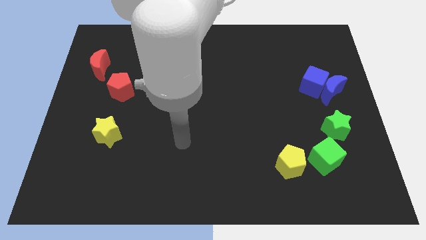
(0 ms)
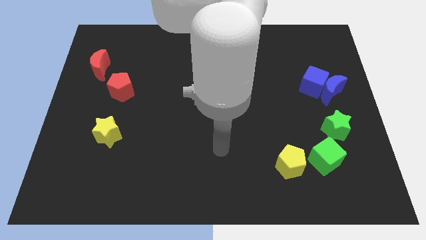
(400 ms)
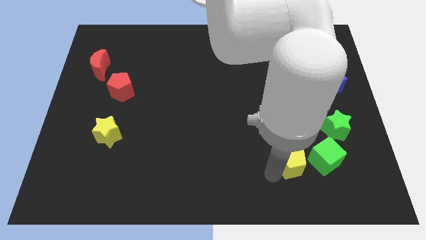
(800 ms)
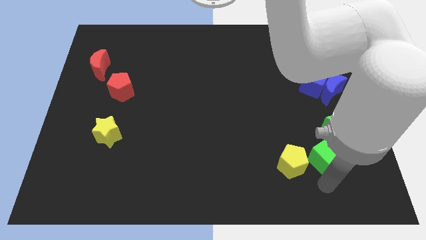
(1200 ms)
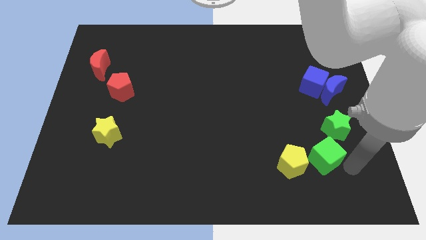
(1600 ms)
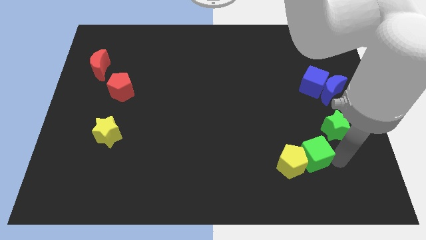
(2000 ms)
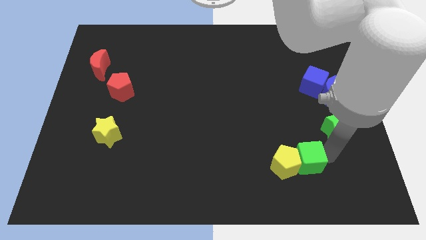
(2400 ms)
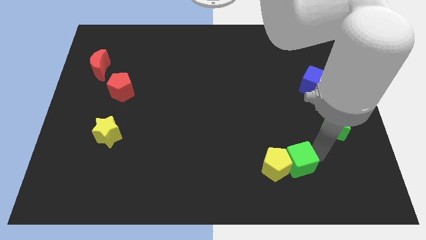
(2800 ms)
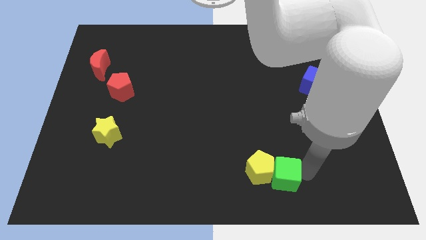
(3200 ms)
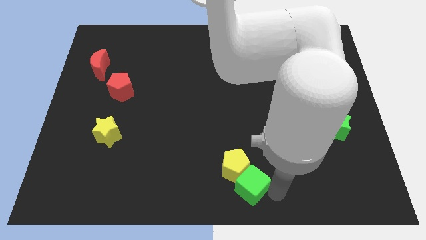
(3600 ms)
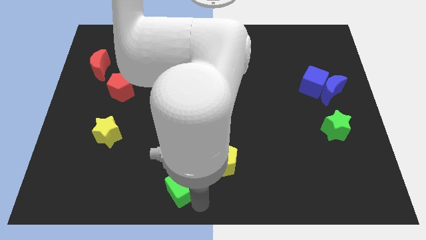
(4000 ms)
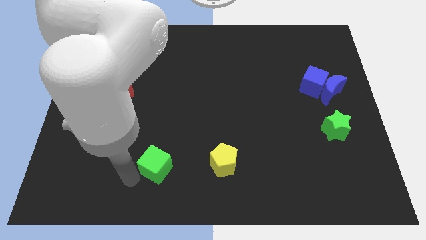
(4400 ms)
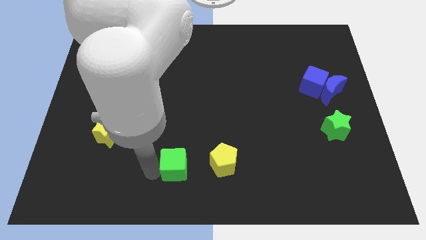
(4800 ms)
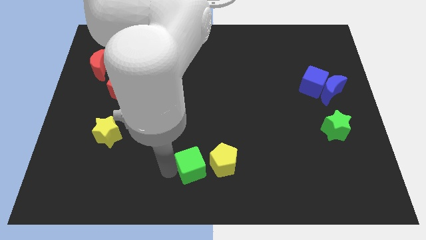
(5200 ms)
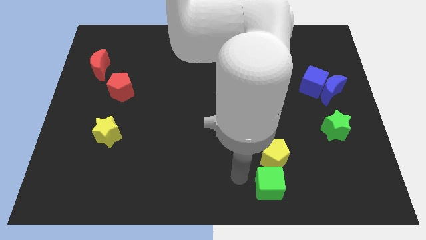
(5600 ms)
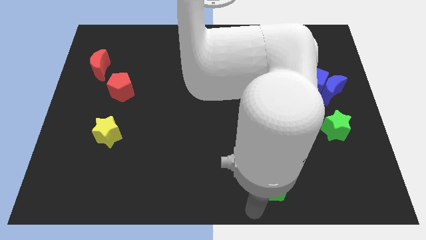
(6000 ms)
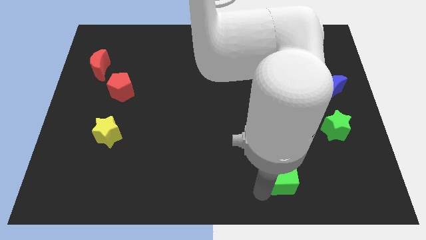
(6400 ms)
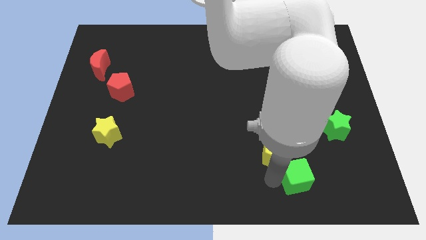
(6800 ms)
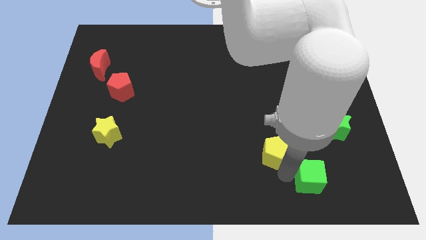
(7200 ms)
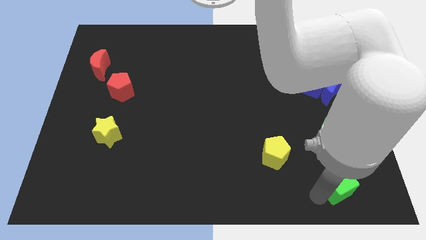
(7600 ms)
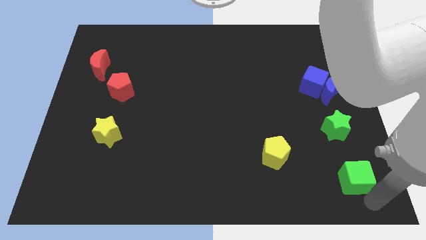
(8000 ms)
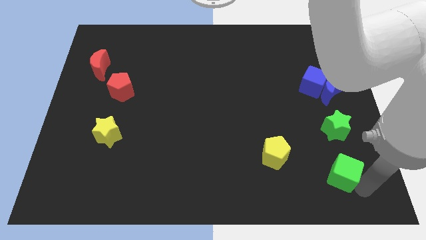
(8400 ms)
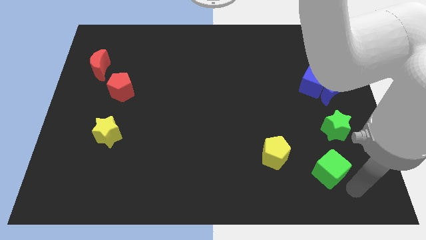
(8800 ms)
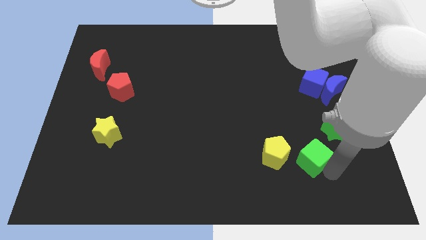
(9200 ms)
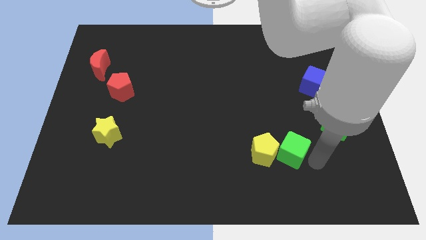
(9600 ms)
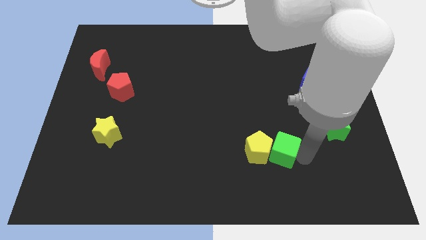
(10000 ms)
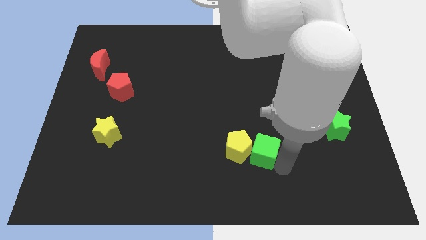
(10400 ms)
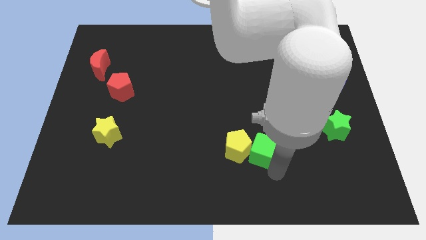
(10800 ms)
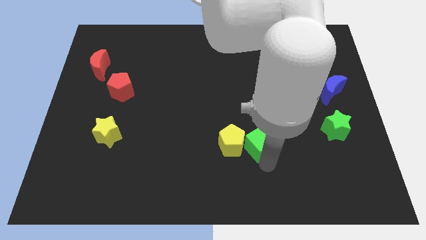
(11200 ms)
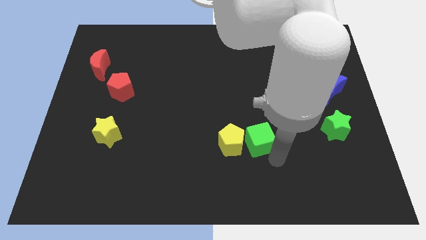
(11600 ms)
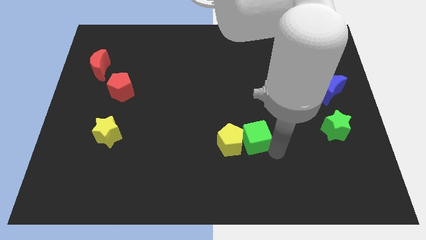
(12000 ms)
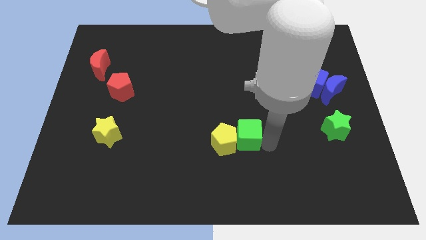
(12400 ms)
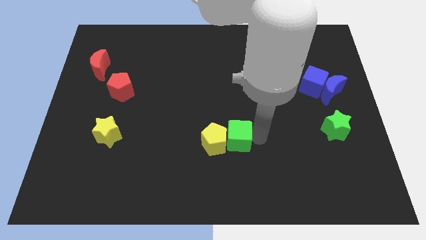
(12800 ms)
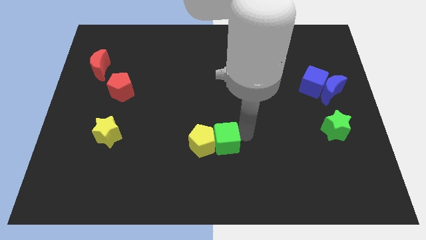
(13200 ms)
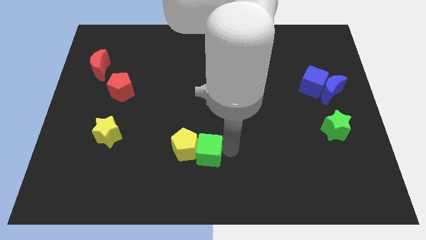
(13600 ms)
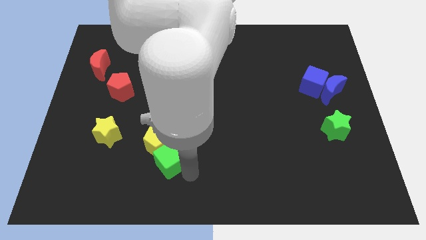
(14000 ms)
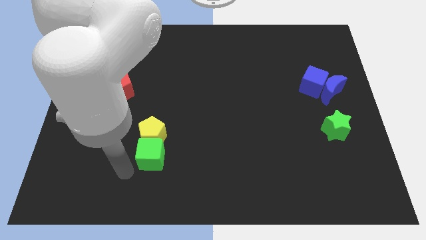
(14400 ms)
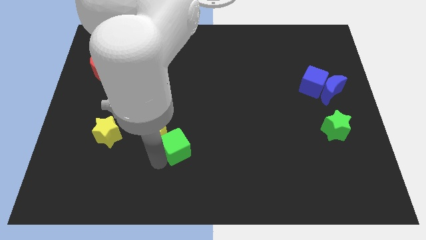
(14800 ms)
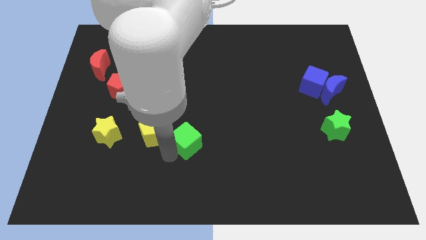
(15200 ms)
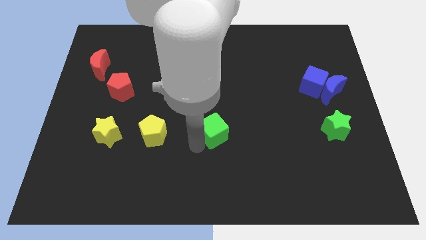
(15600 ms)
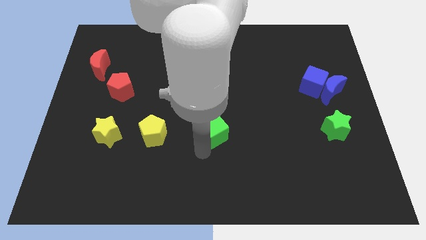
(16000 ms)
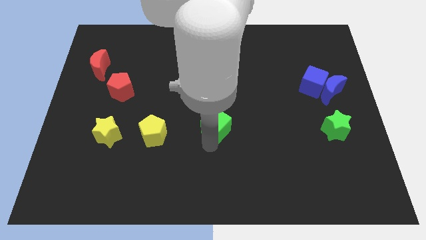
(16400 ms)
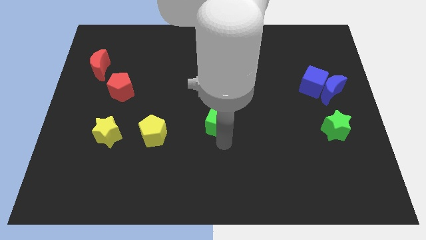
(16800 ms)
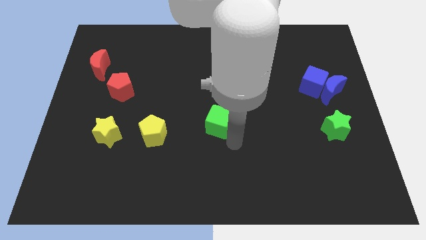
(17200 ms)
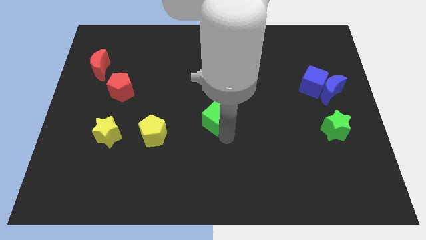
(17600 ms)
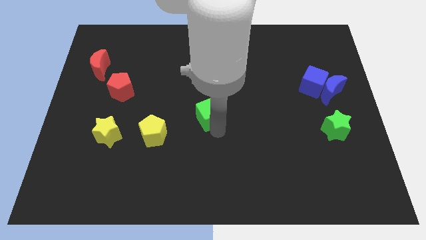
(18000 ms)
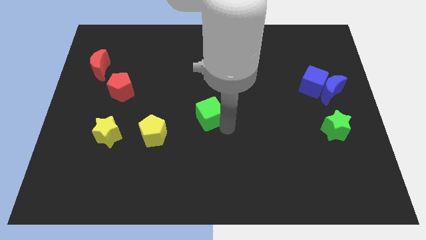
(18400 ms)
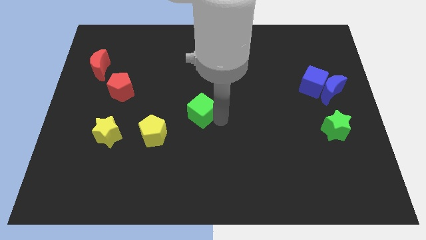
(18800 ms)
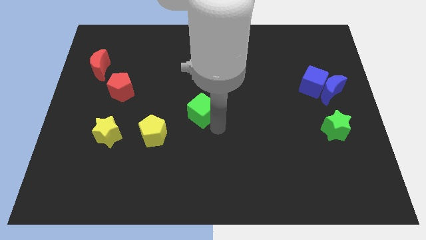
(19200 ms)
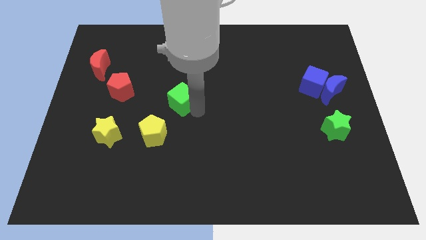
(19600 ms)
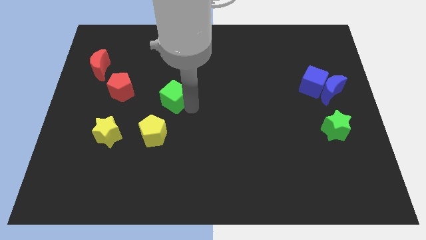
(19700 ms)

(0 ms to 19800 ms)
slide the green cube to the right side of the red pentagon

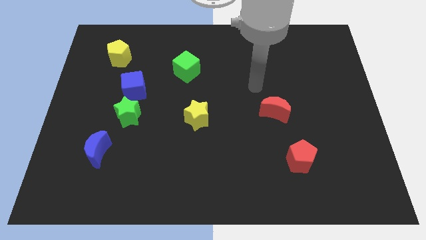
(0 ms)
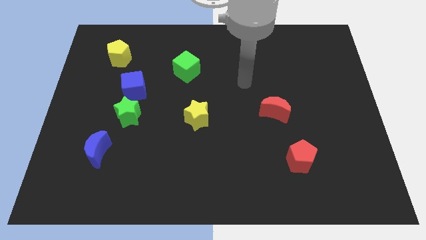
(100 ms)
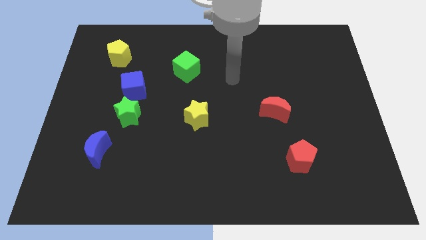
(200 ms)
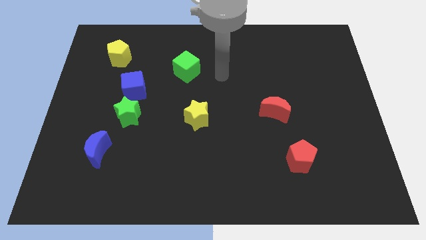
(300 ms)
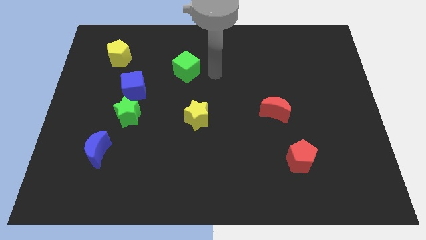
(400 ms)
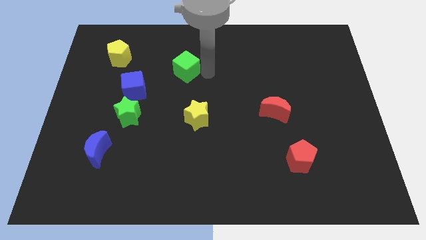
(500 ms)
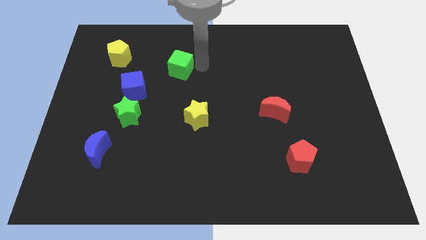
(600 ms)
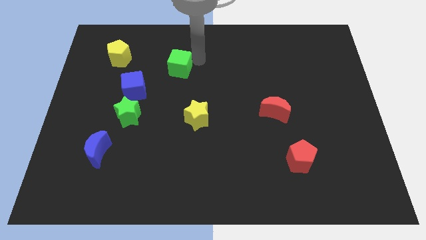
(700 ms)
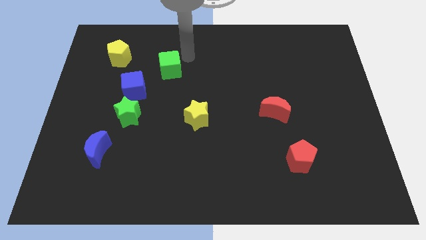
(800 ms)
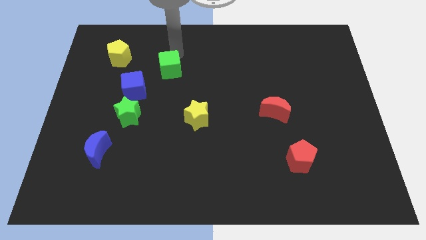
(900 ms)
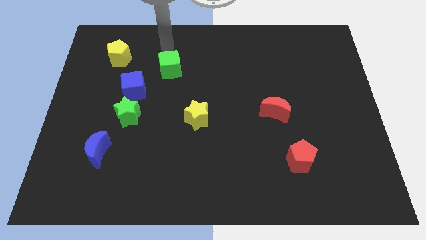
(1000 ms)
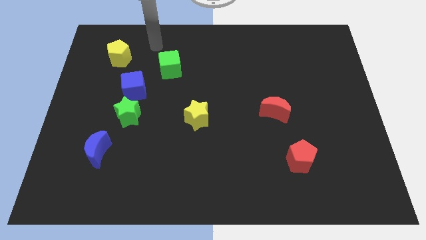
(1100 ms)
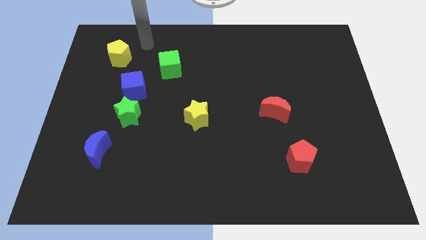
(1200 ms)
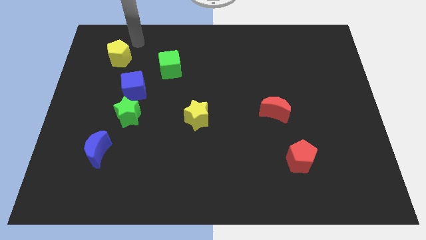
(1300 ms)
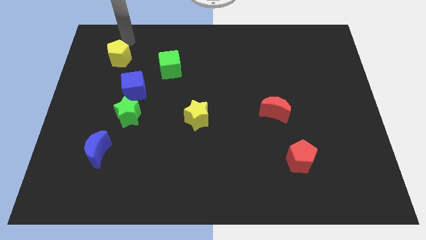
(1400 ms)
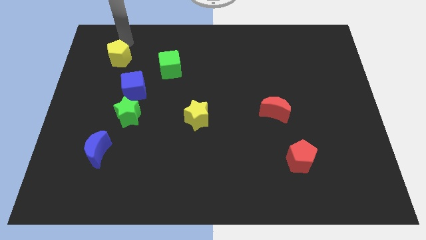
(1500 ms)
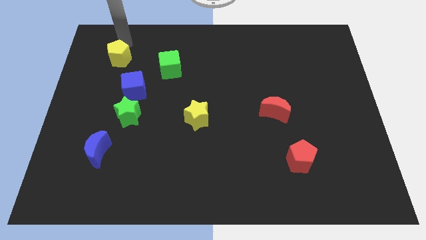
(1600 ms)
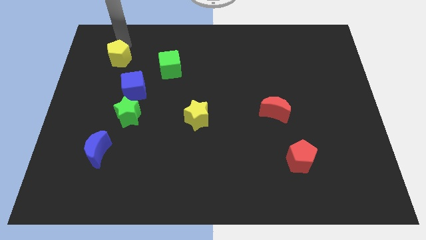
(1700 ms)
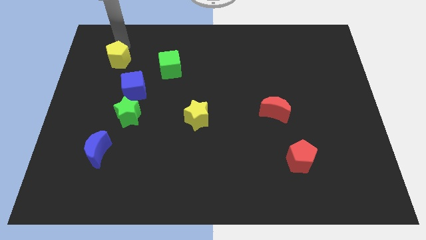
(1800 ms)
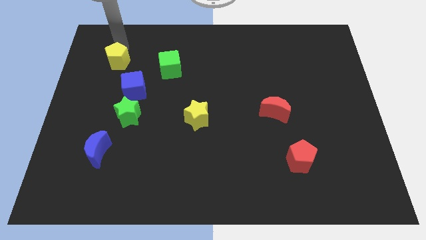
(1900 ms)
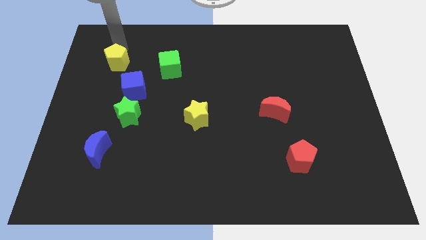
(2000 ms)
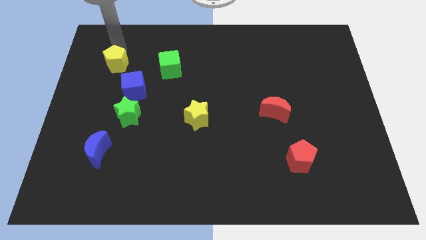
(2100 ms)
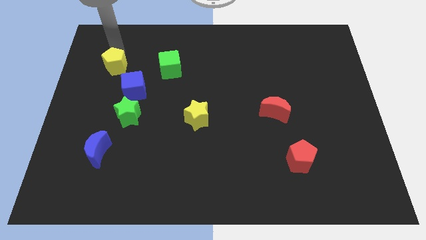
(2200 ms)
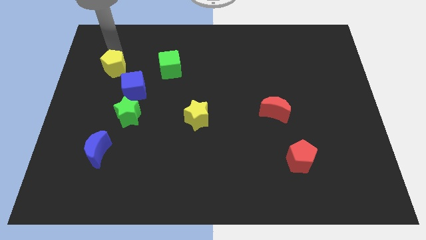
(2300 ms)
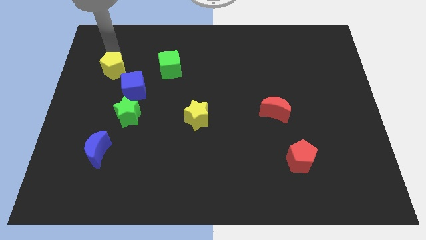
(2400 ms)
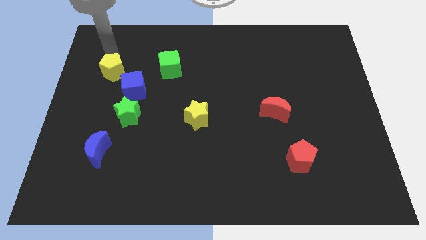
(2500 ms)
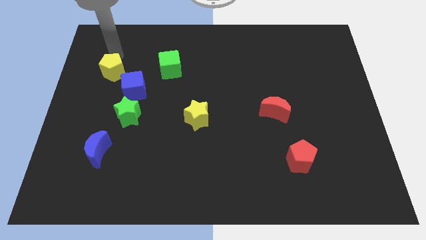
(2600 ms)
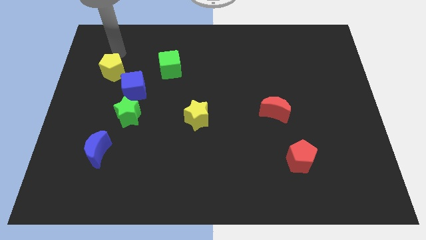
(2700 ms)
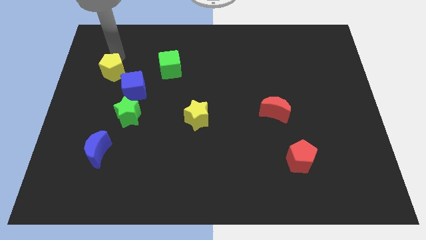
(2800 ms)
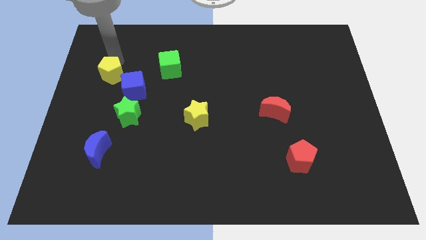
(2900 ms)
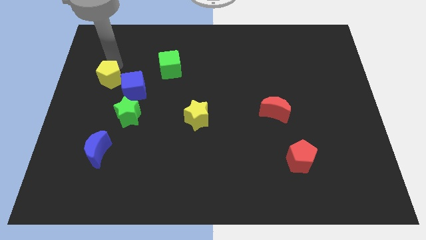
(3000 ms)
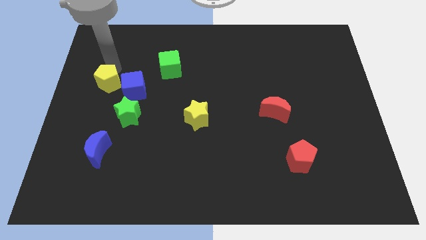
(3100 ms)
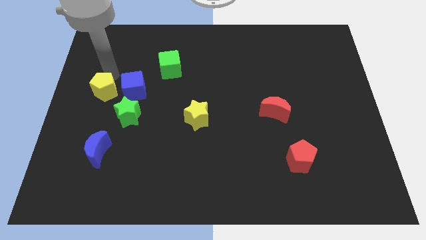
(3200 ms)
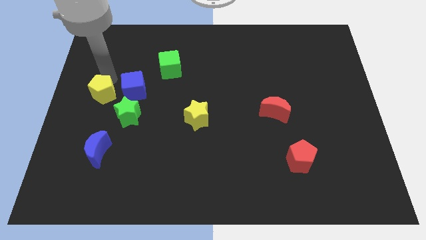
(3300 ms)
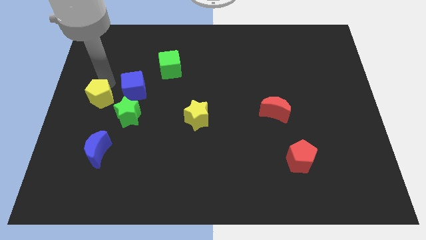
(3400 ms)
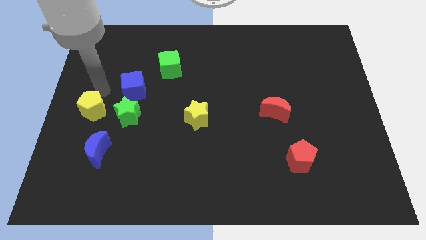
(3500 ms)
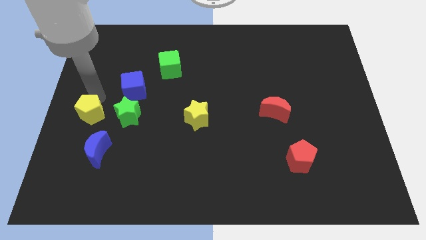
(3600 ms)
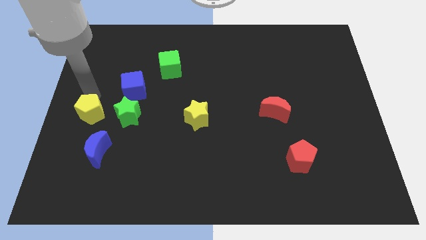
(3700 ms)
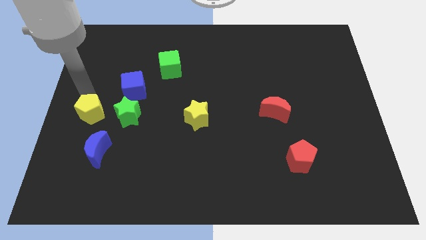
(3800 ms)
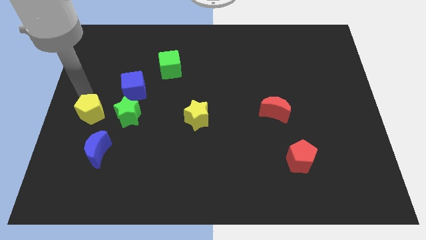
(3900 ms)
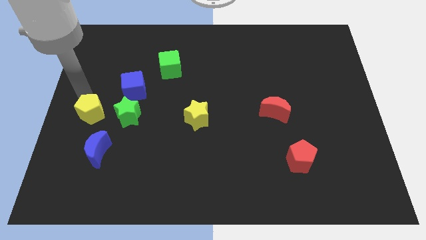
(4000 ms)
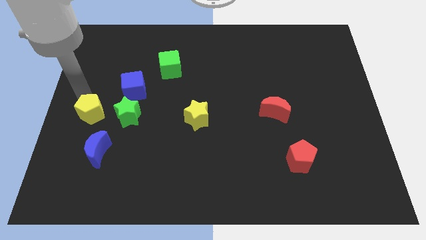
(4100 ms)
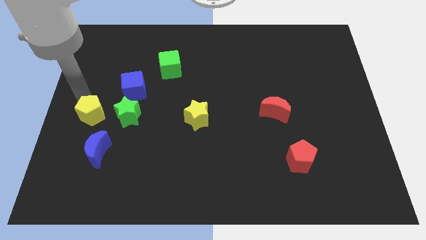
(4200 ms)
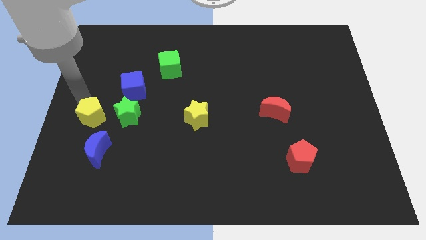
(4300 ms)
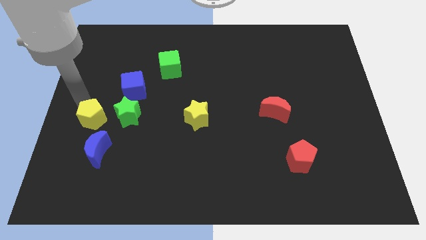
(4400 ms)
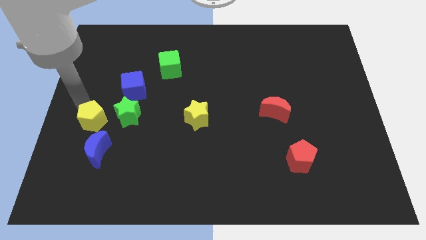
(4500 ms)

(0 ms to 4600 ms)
slide the yellow pentagon to the bottom left of the green star
